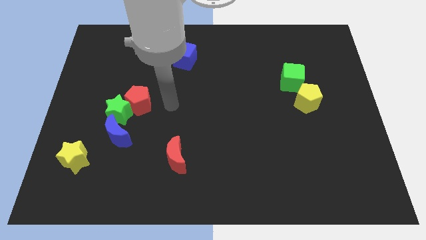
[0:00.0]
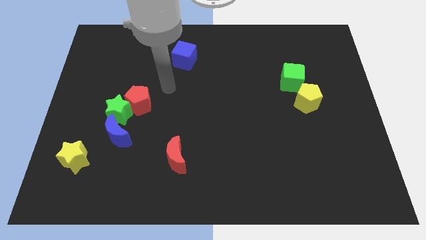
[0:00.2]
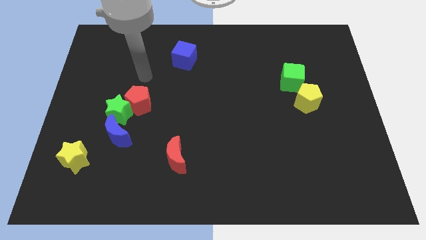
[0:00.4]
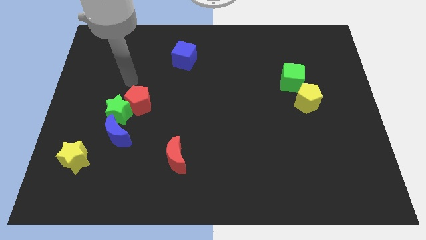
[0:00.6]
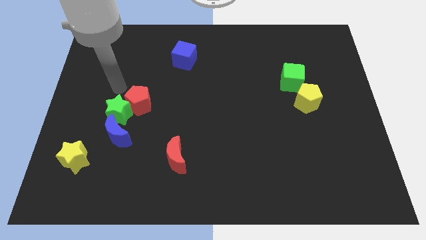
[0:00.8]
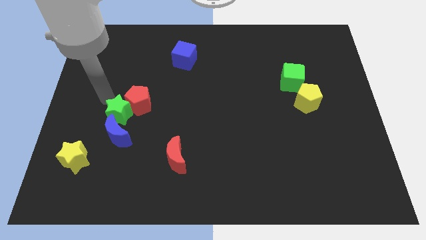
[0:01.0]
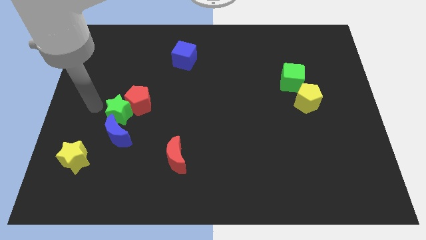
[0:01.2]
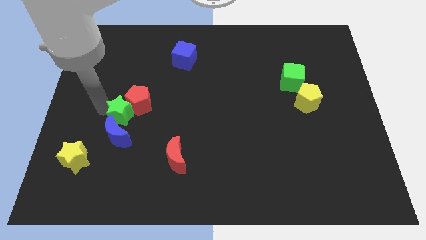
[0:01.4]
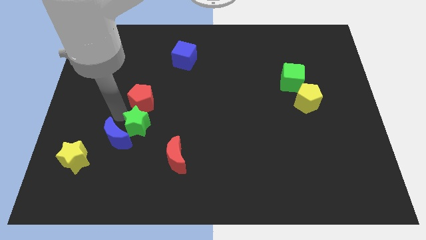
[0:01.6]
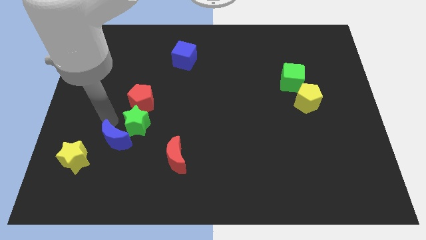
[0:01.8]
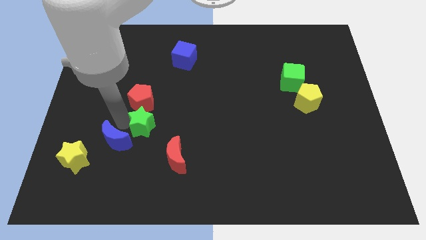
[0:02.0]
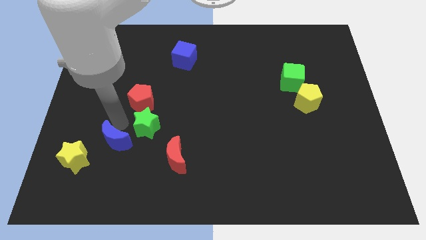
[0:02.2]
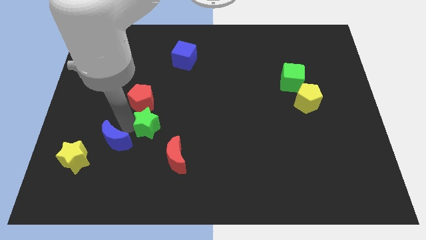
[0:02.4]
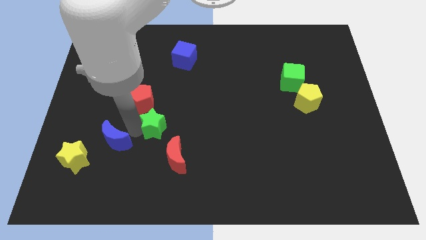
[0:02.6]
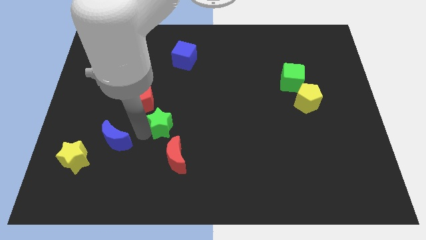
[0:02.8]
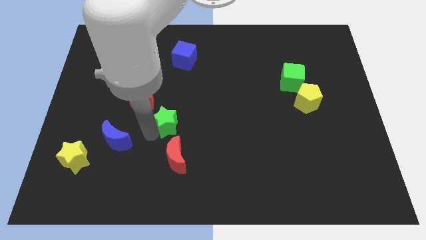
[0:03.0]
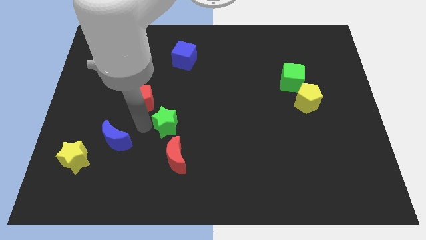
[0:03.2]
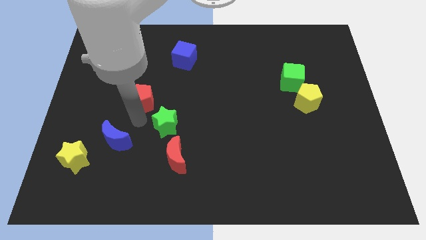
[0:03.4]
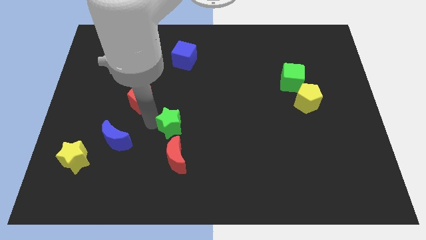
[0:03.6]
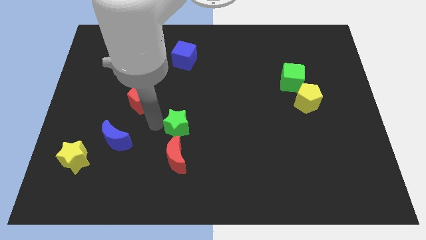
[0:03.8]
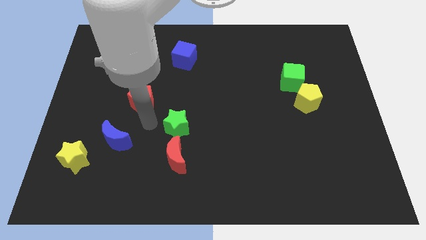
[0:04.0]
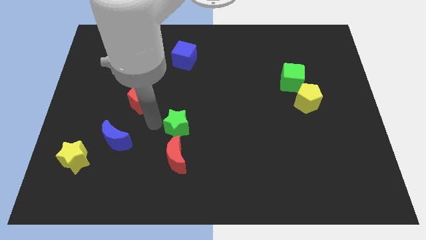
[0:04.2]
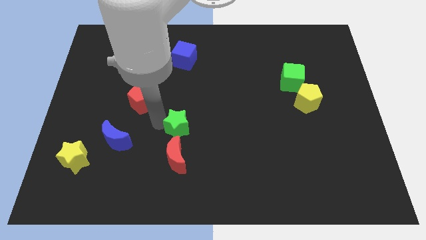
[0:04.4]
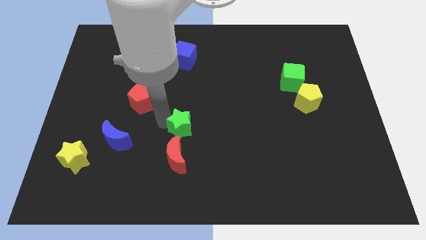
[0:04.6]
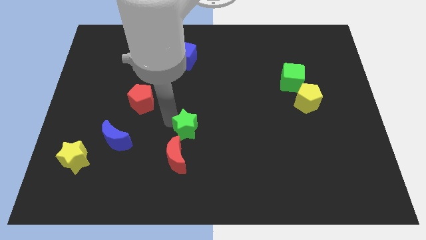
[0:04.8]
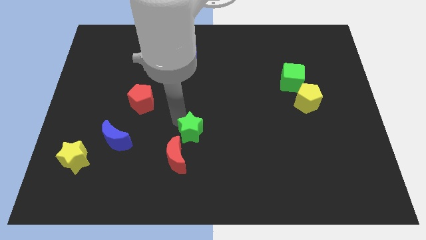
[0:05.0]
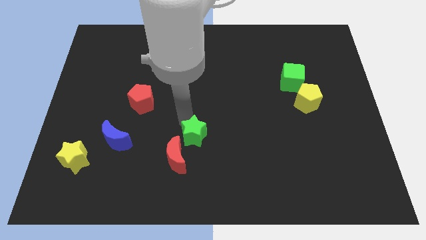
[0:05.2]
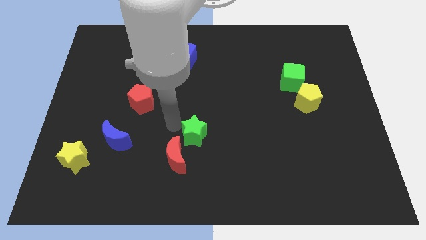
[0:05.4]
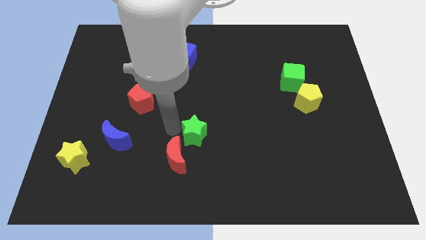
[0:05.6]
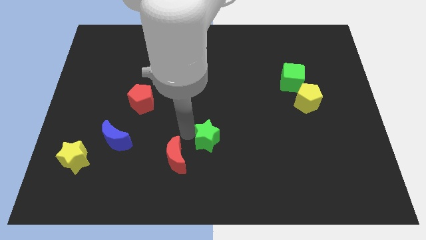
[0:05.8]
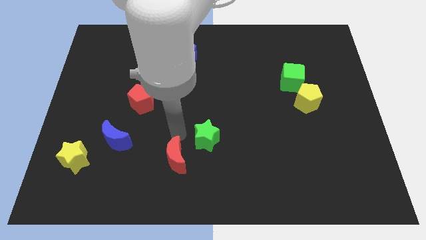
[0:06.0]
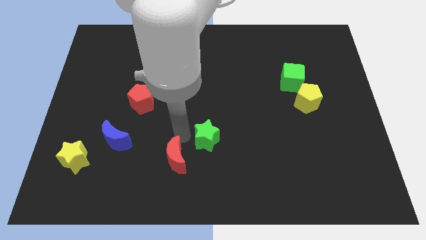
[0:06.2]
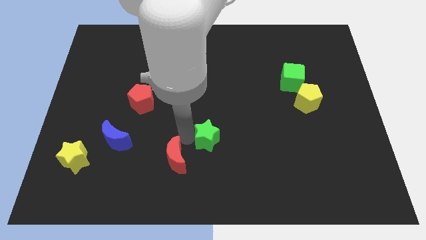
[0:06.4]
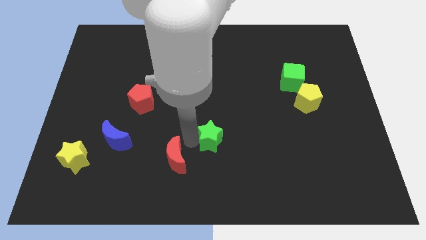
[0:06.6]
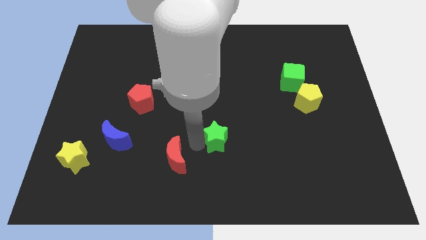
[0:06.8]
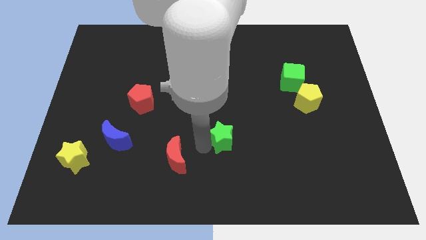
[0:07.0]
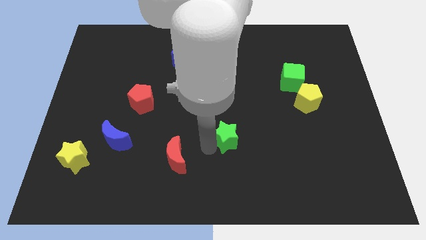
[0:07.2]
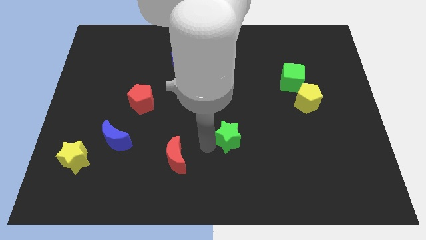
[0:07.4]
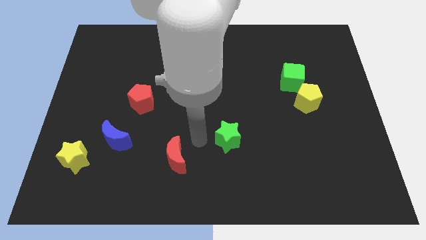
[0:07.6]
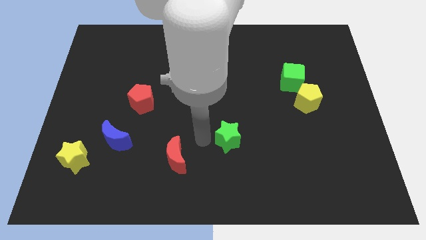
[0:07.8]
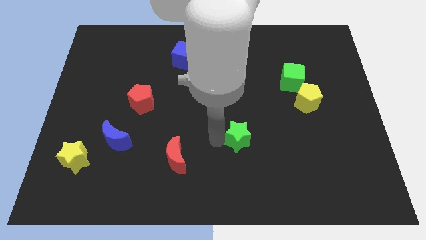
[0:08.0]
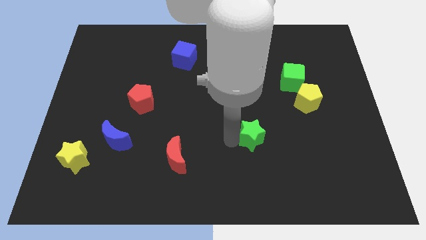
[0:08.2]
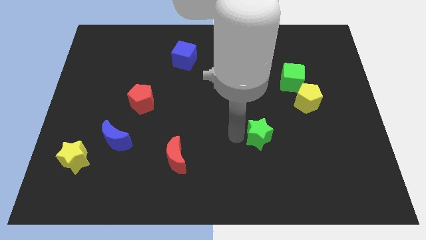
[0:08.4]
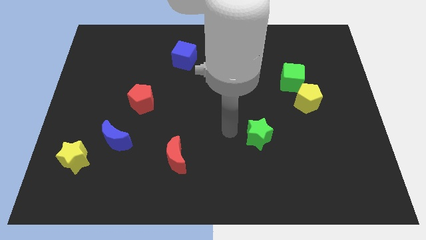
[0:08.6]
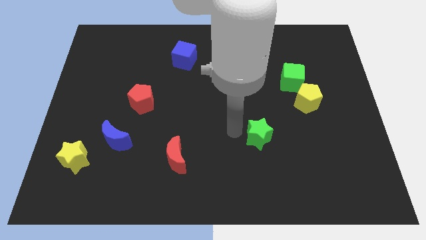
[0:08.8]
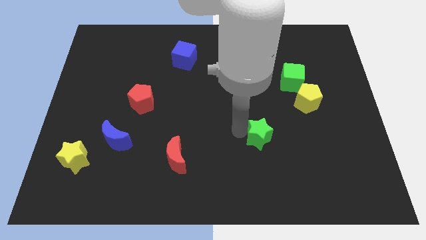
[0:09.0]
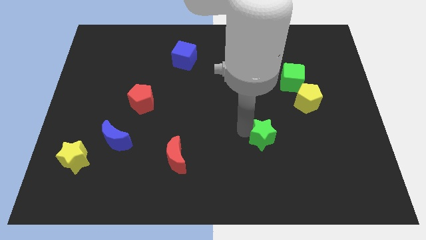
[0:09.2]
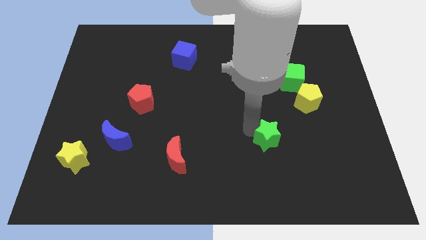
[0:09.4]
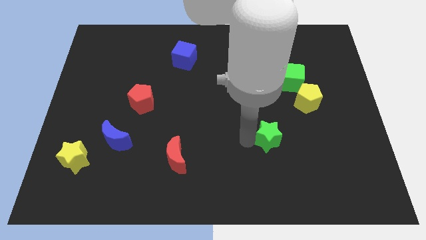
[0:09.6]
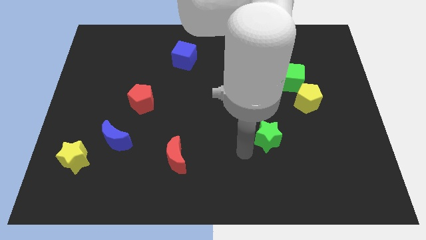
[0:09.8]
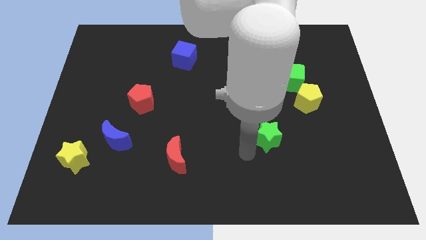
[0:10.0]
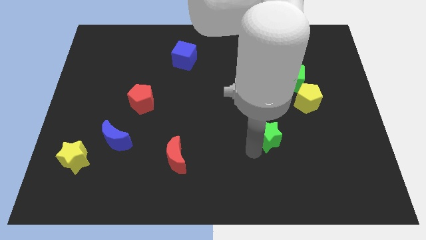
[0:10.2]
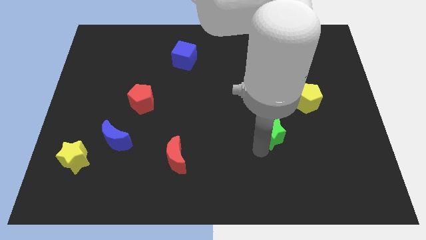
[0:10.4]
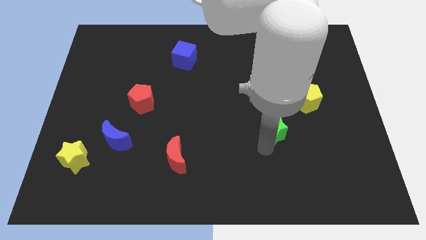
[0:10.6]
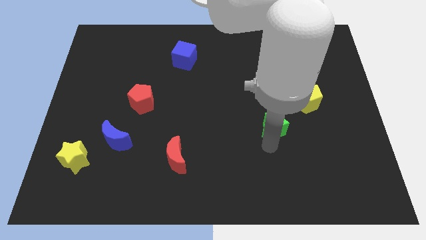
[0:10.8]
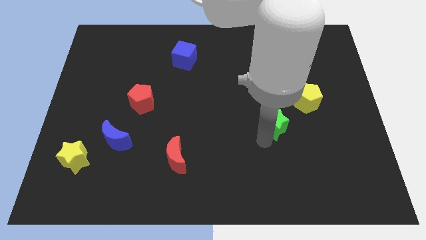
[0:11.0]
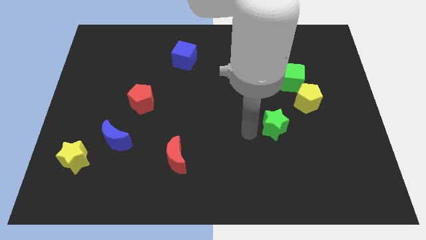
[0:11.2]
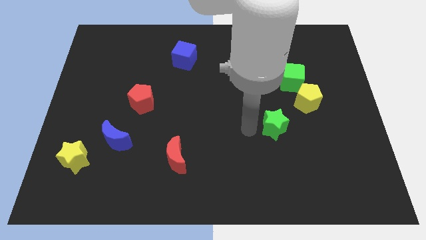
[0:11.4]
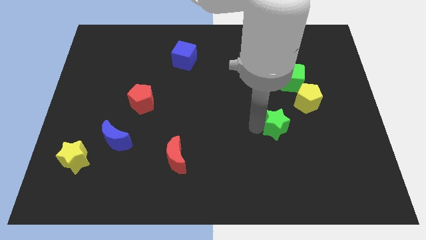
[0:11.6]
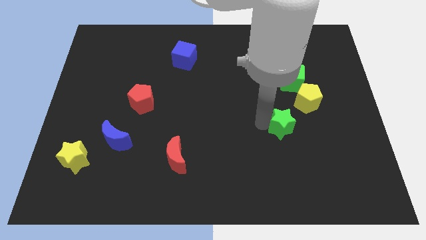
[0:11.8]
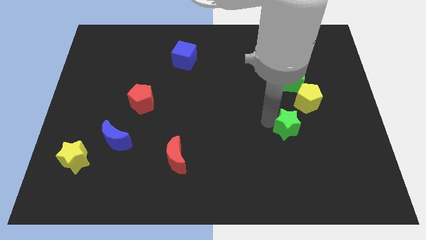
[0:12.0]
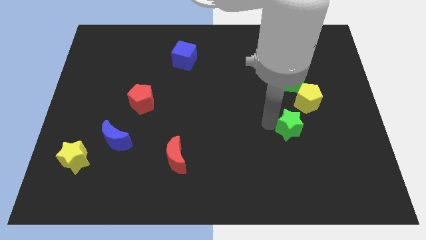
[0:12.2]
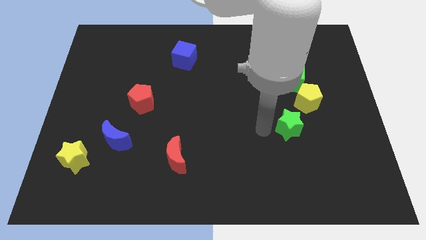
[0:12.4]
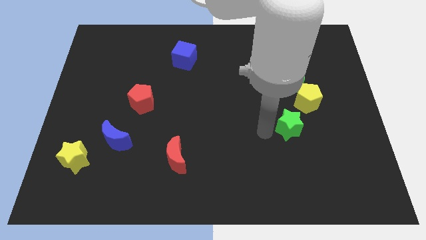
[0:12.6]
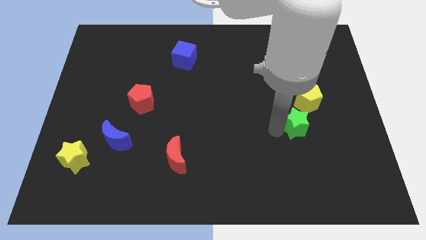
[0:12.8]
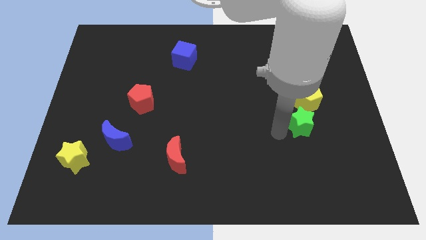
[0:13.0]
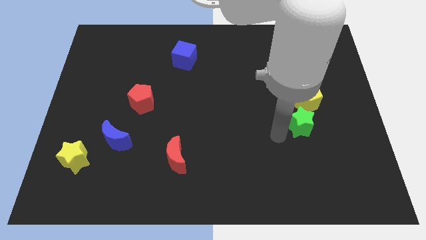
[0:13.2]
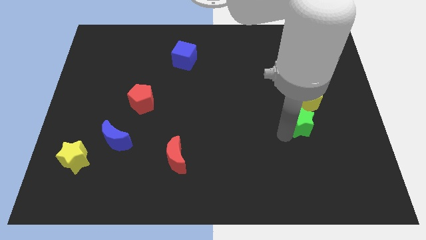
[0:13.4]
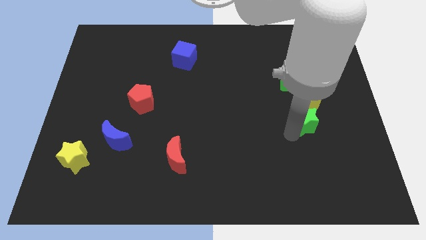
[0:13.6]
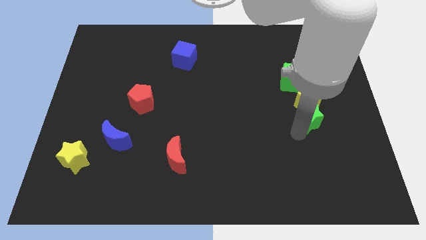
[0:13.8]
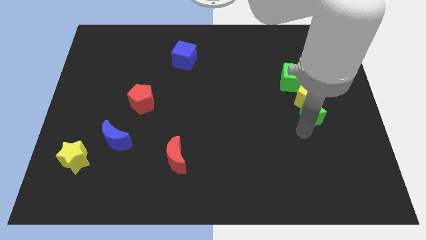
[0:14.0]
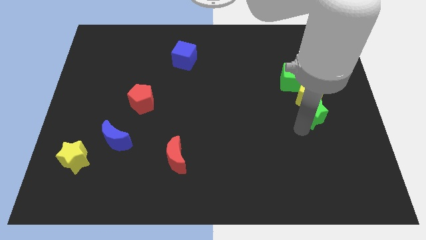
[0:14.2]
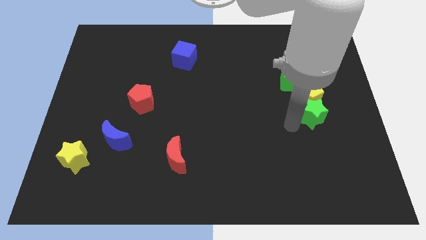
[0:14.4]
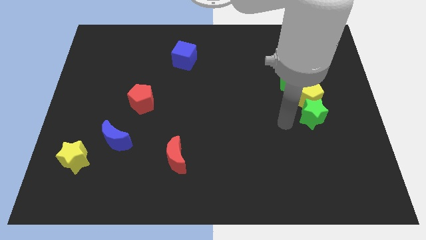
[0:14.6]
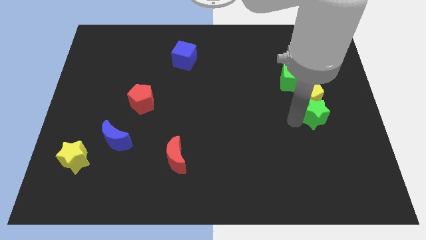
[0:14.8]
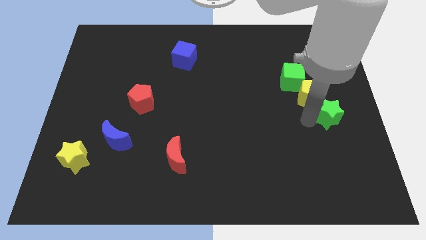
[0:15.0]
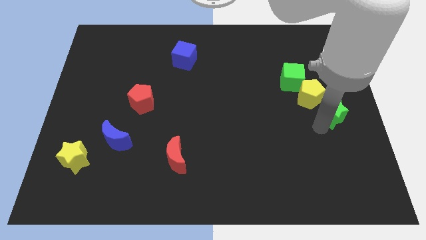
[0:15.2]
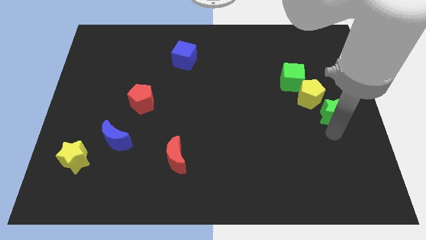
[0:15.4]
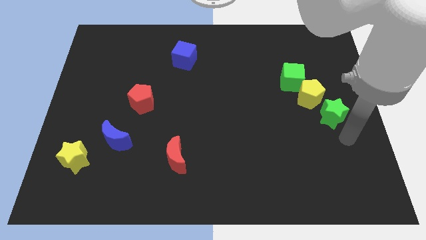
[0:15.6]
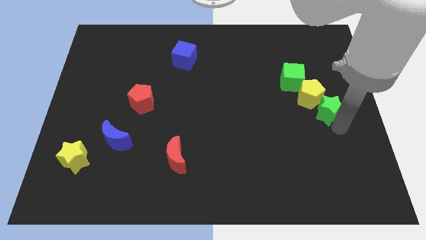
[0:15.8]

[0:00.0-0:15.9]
put the green star to the bottom right side of the green cube
